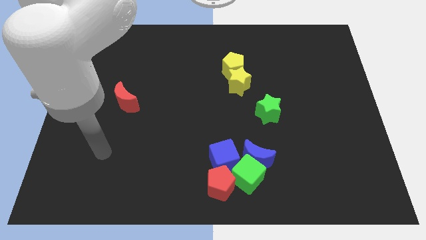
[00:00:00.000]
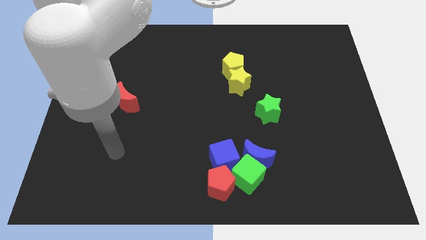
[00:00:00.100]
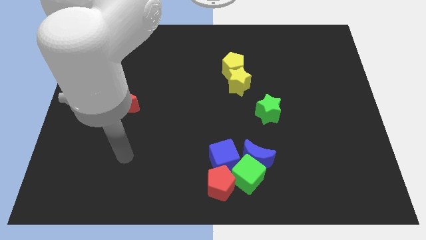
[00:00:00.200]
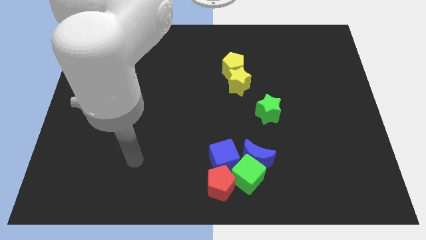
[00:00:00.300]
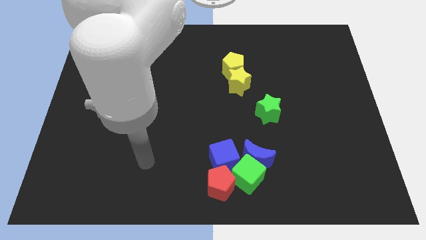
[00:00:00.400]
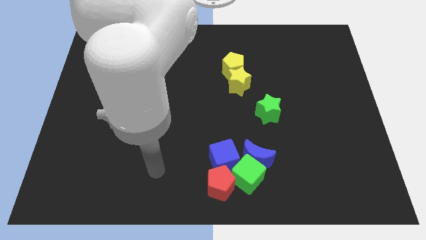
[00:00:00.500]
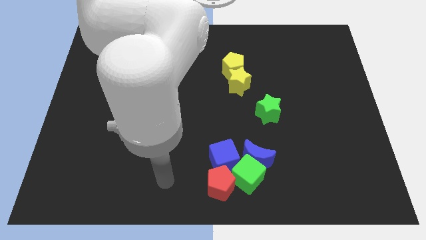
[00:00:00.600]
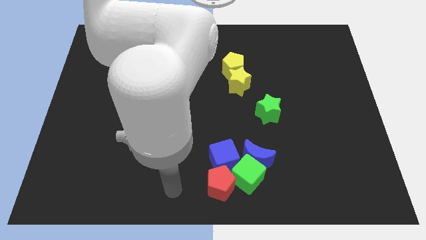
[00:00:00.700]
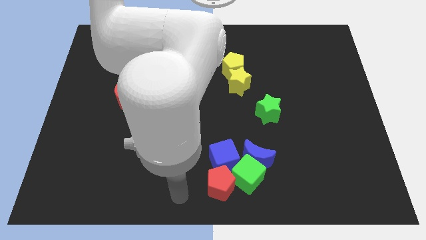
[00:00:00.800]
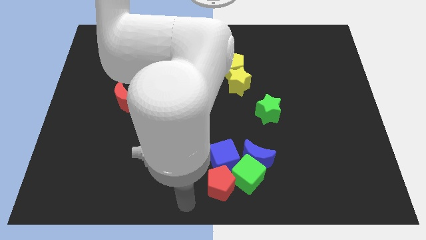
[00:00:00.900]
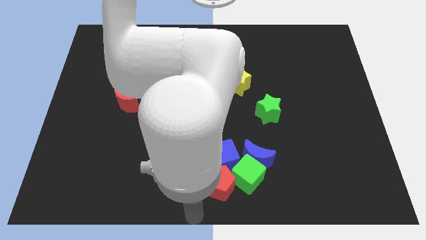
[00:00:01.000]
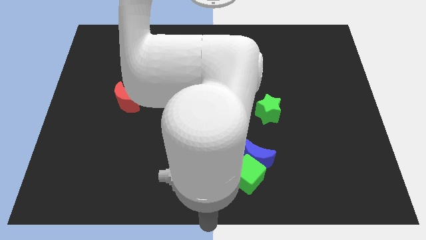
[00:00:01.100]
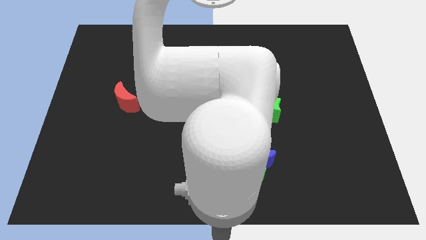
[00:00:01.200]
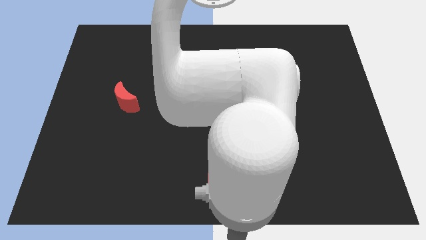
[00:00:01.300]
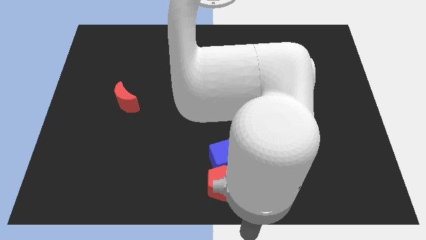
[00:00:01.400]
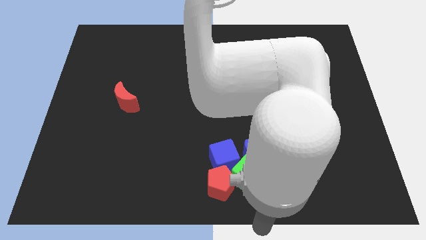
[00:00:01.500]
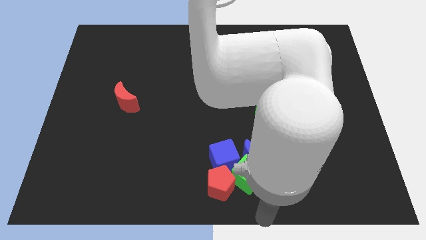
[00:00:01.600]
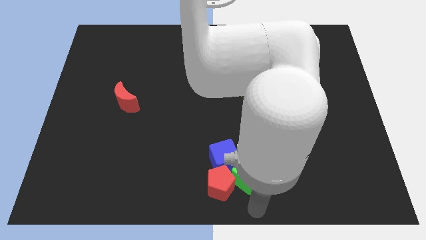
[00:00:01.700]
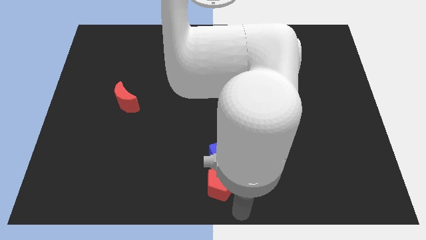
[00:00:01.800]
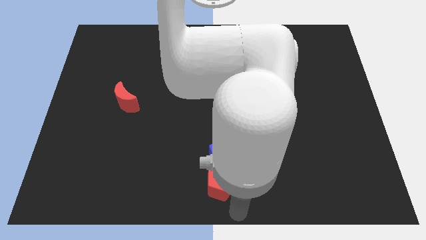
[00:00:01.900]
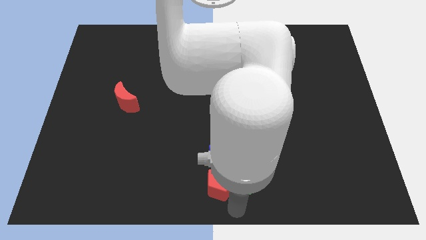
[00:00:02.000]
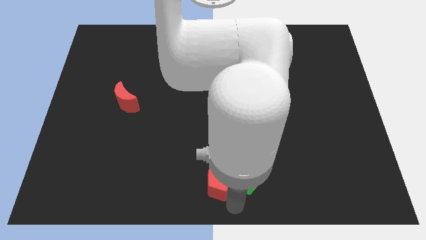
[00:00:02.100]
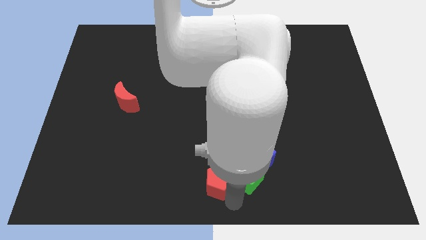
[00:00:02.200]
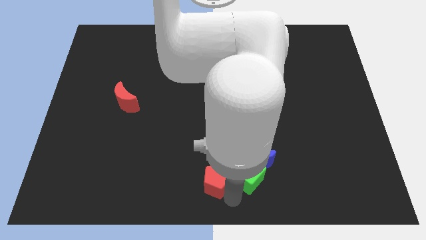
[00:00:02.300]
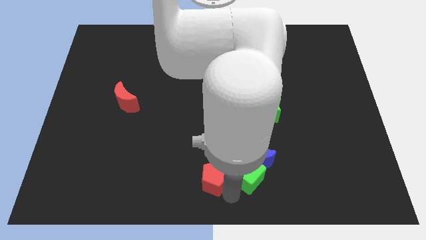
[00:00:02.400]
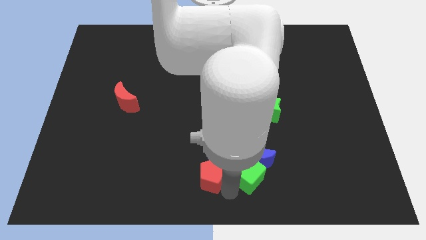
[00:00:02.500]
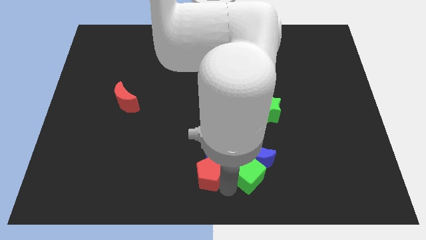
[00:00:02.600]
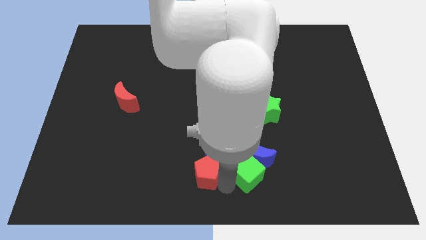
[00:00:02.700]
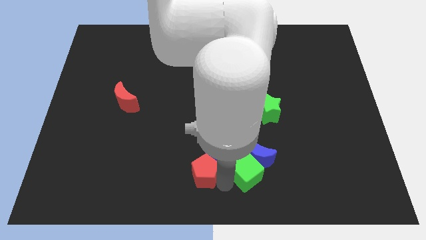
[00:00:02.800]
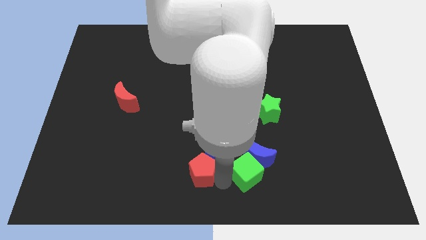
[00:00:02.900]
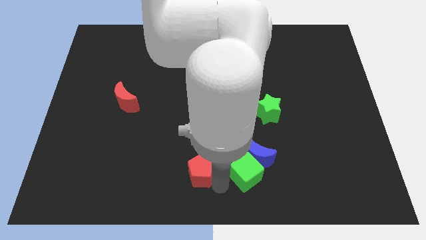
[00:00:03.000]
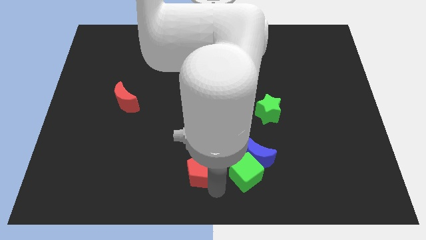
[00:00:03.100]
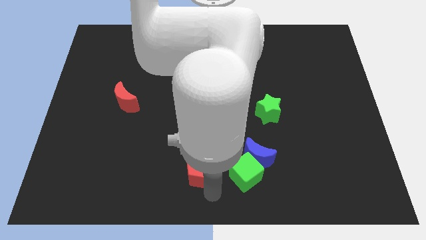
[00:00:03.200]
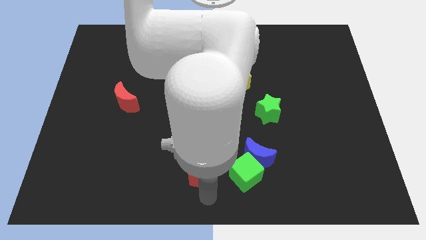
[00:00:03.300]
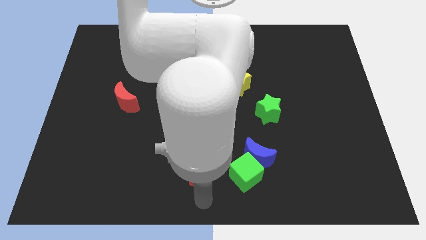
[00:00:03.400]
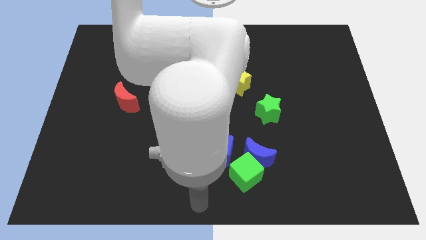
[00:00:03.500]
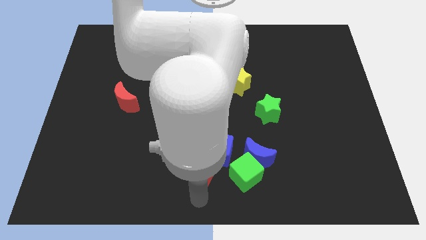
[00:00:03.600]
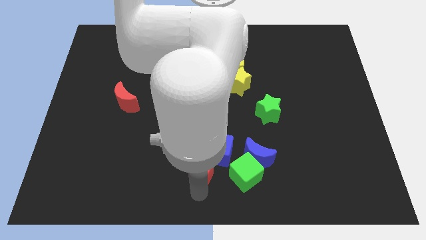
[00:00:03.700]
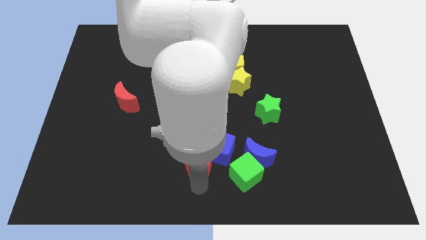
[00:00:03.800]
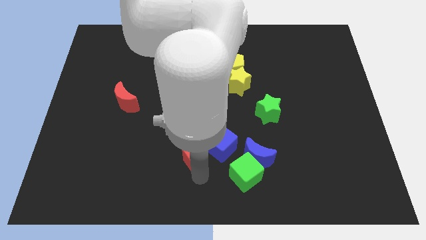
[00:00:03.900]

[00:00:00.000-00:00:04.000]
slightly move the red pentagon diagonally up and left

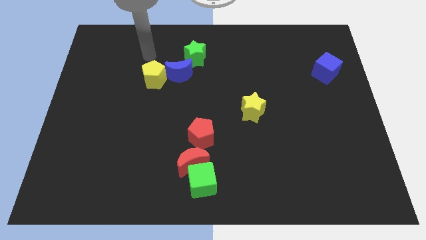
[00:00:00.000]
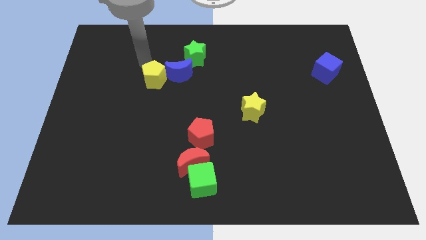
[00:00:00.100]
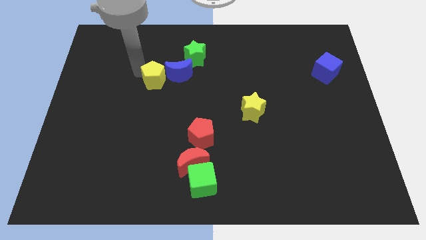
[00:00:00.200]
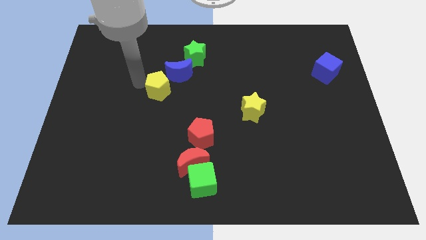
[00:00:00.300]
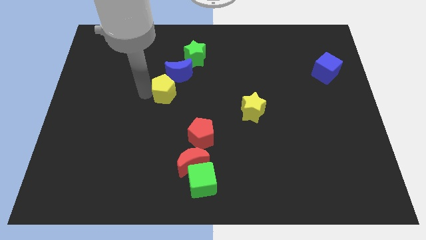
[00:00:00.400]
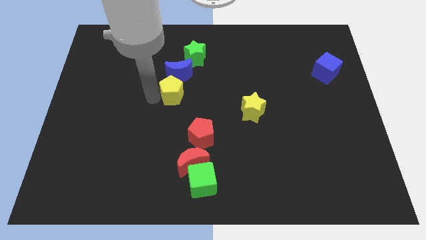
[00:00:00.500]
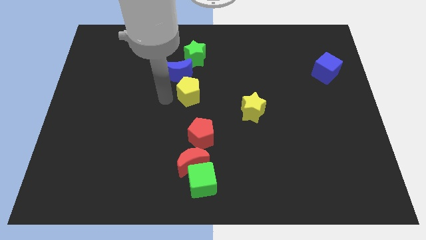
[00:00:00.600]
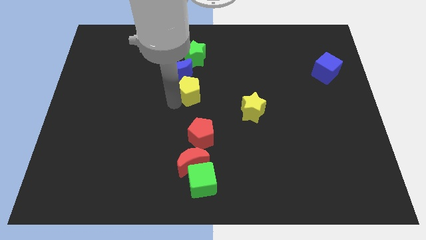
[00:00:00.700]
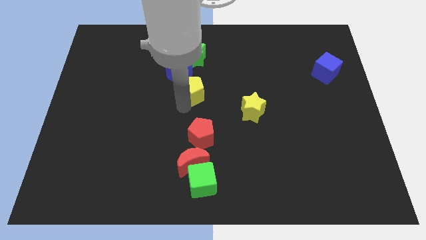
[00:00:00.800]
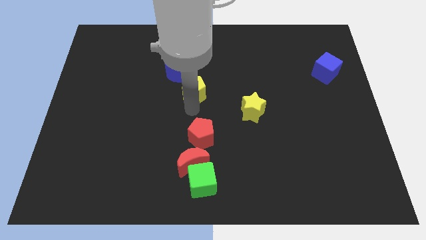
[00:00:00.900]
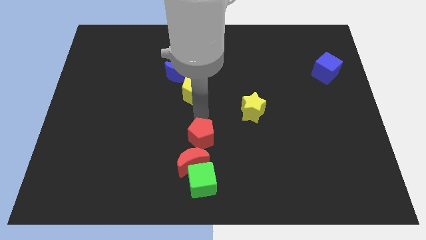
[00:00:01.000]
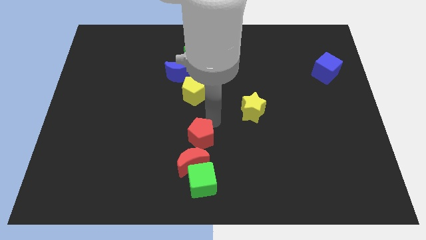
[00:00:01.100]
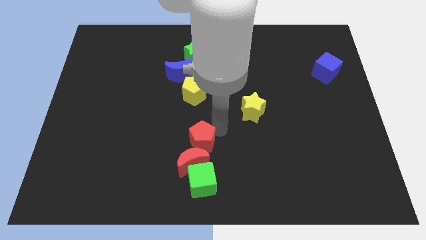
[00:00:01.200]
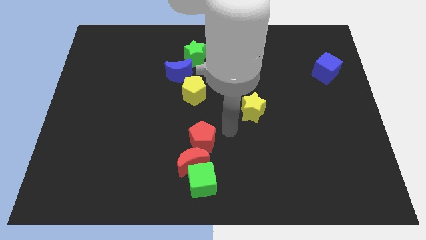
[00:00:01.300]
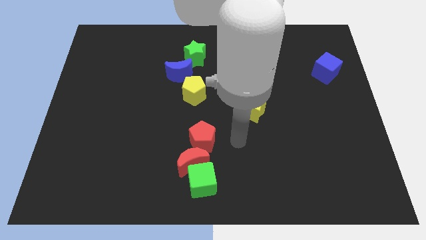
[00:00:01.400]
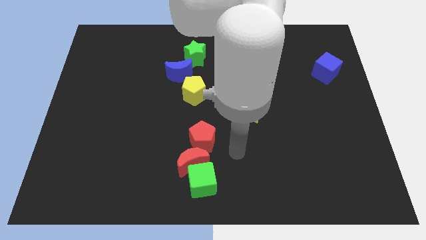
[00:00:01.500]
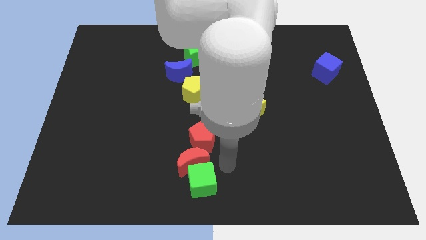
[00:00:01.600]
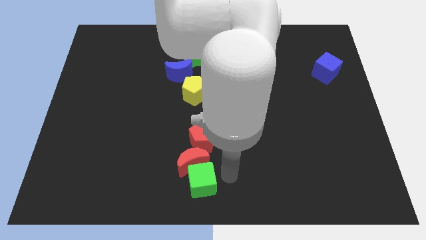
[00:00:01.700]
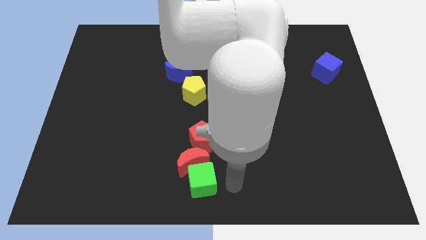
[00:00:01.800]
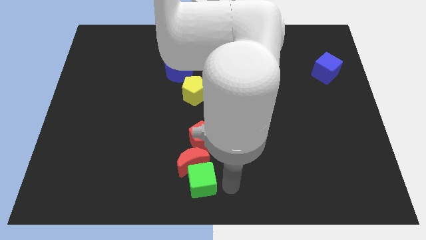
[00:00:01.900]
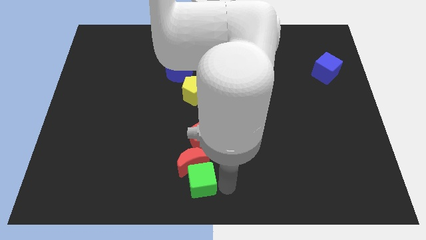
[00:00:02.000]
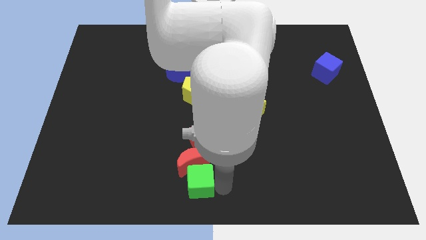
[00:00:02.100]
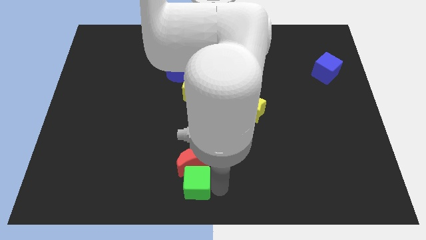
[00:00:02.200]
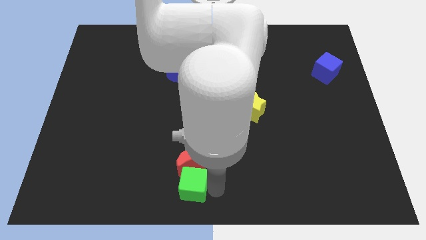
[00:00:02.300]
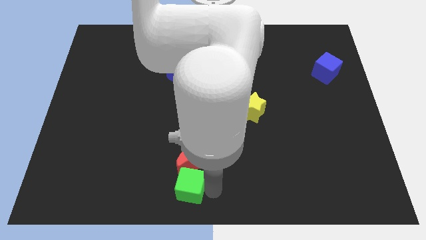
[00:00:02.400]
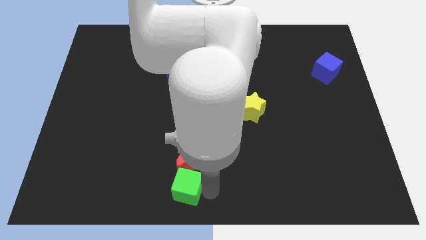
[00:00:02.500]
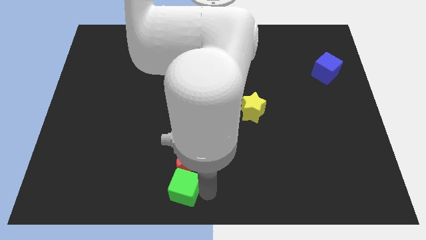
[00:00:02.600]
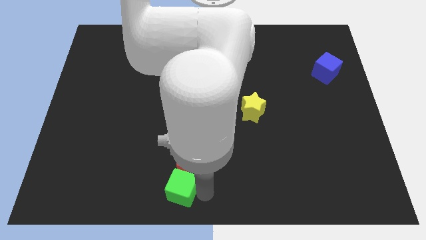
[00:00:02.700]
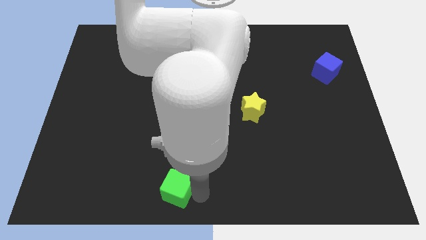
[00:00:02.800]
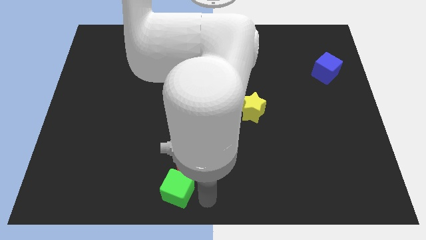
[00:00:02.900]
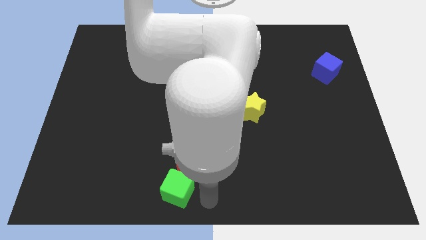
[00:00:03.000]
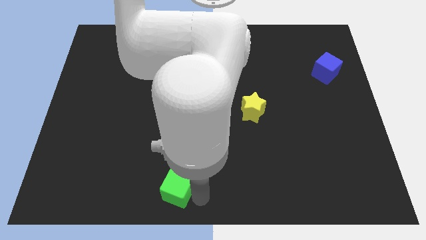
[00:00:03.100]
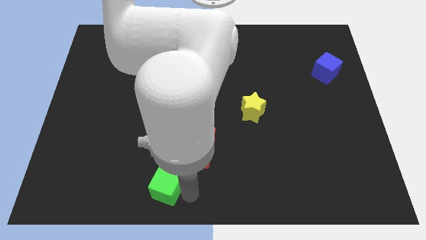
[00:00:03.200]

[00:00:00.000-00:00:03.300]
slightly slide the green cube to the left

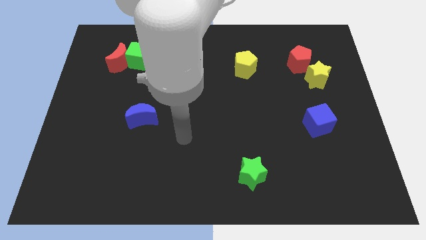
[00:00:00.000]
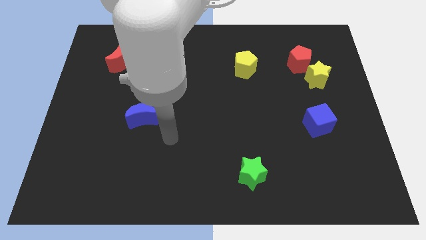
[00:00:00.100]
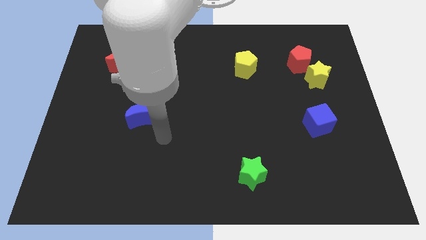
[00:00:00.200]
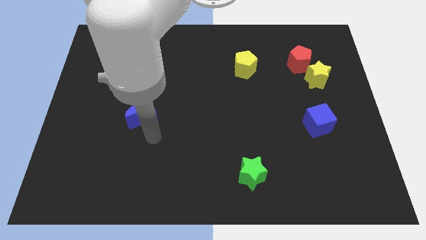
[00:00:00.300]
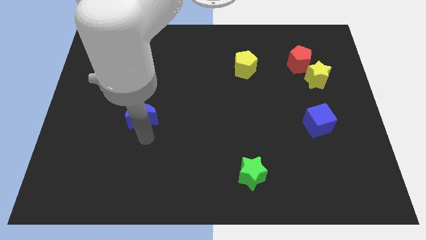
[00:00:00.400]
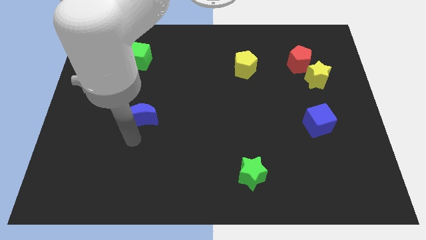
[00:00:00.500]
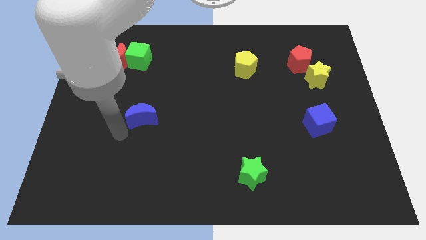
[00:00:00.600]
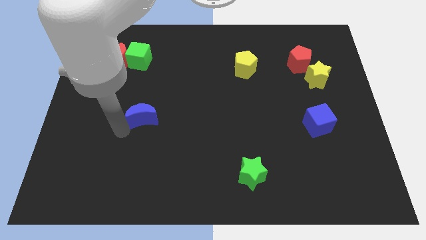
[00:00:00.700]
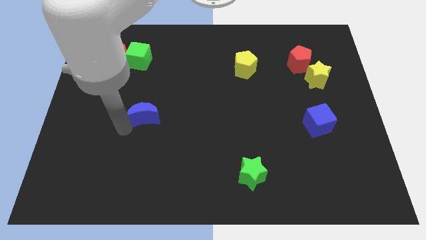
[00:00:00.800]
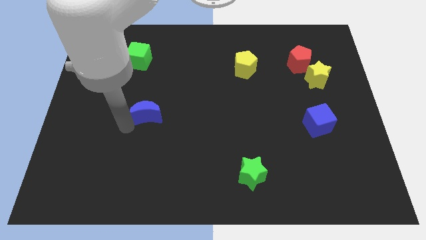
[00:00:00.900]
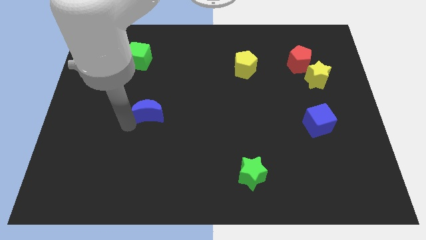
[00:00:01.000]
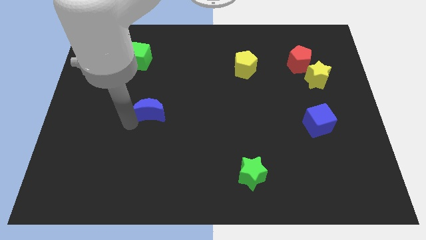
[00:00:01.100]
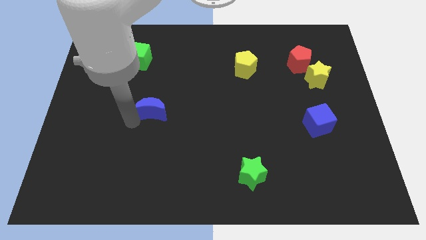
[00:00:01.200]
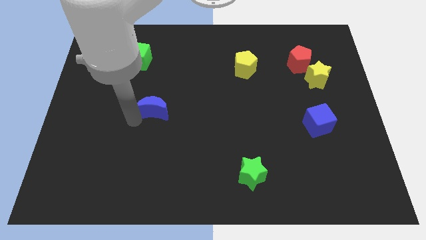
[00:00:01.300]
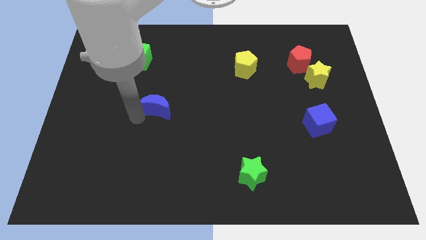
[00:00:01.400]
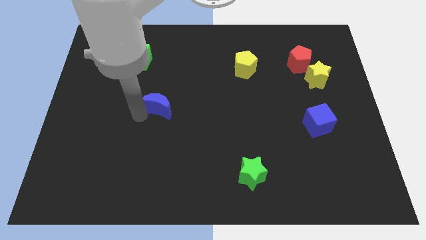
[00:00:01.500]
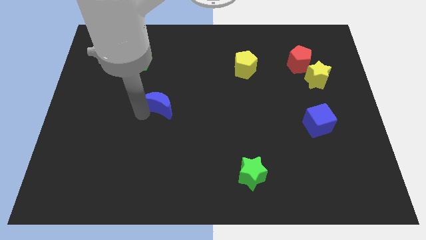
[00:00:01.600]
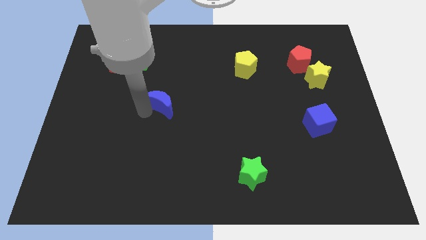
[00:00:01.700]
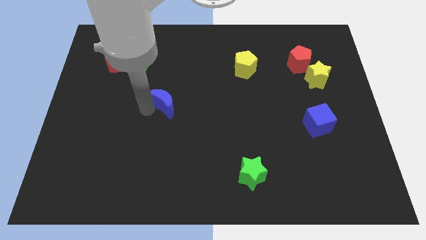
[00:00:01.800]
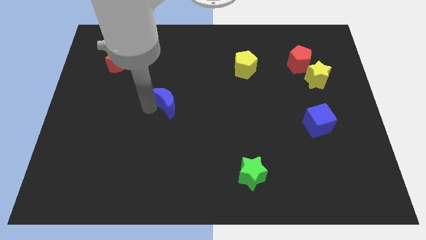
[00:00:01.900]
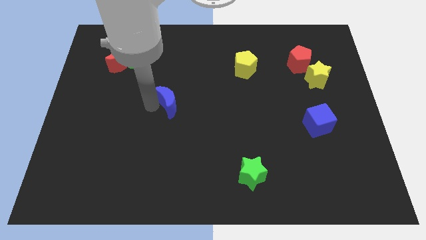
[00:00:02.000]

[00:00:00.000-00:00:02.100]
move the blue moon up and right diagonally slightly
